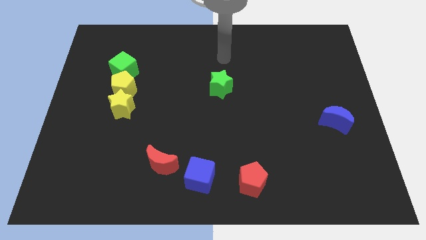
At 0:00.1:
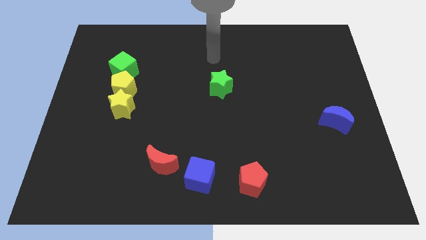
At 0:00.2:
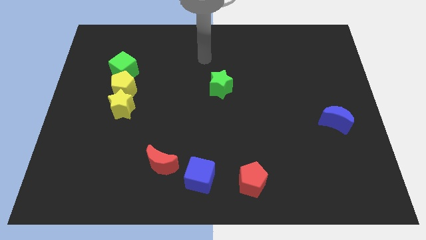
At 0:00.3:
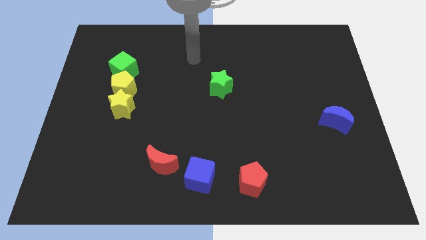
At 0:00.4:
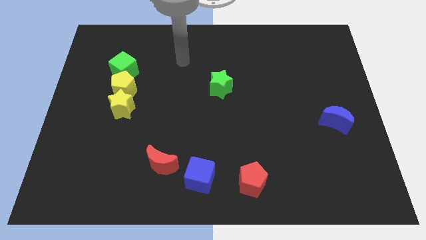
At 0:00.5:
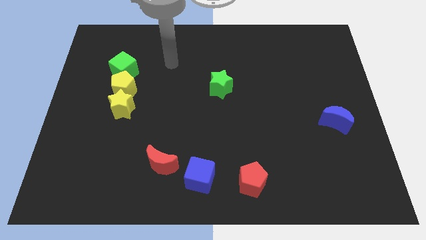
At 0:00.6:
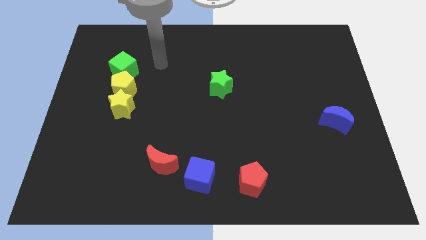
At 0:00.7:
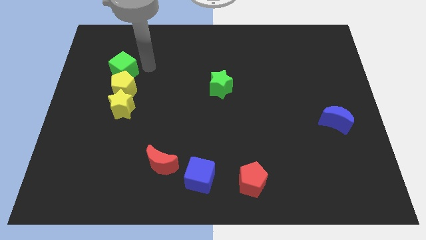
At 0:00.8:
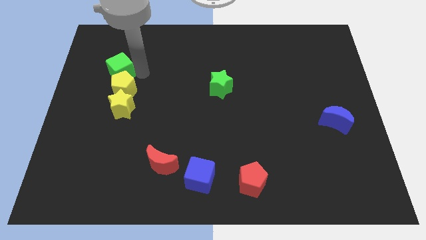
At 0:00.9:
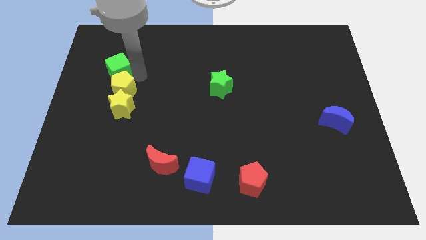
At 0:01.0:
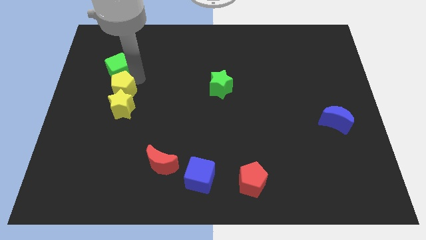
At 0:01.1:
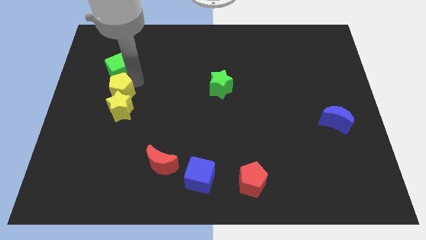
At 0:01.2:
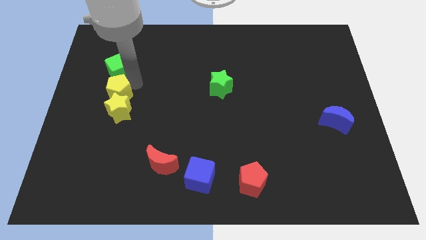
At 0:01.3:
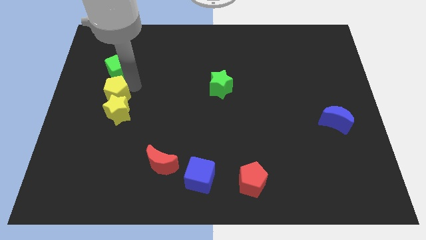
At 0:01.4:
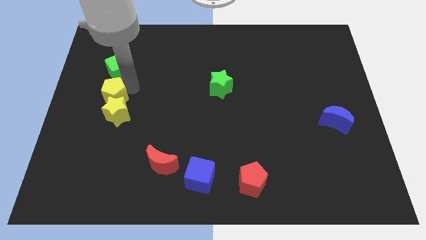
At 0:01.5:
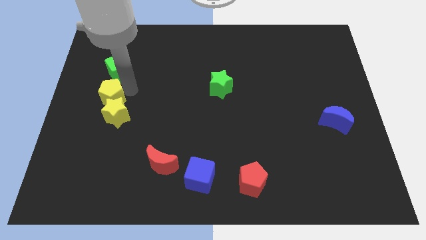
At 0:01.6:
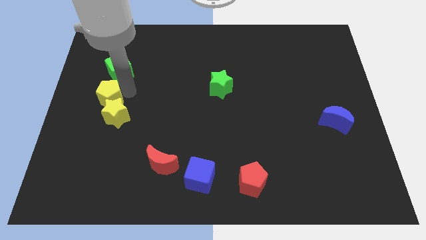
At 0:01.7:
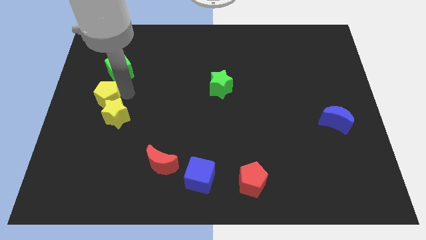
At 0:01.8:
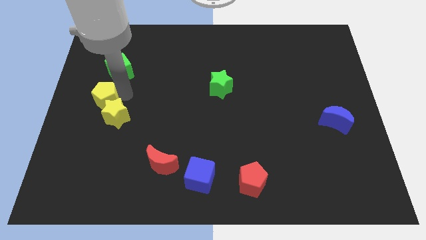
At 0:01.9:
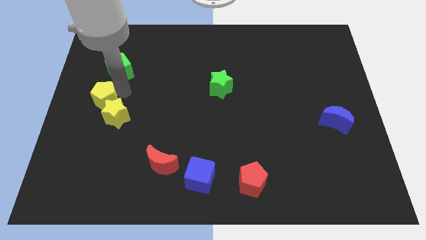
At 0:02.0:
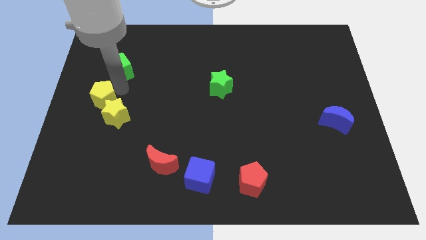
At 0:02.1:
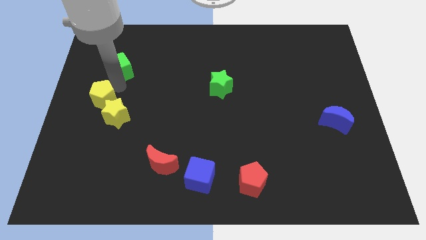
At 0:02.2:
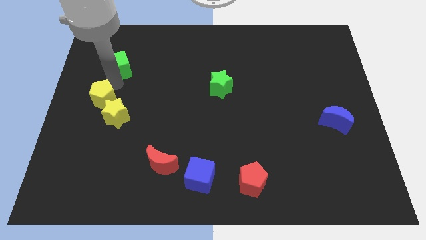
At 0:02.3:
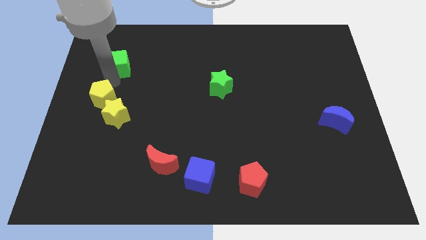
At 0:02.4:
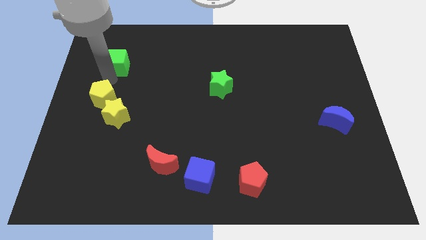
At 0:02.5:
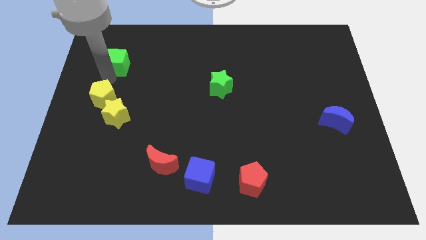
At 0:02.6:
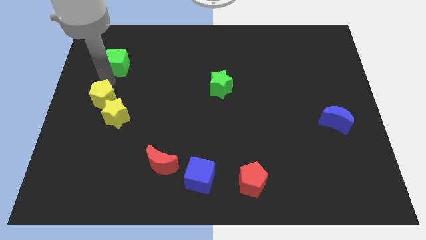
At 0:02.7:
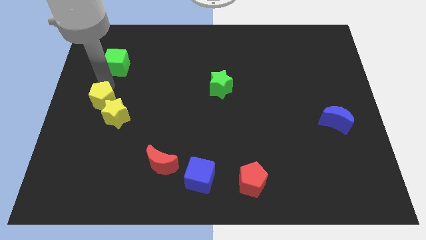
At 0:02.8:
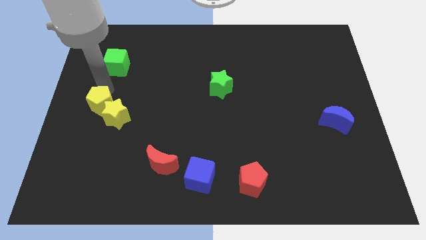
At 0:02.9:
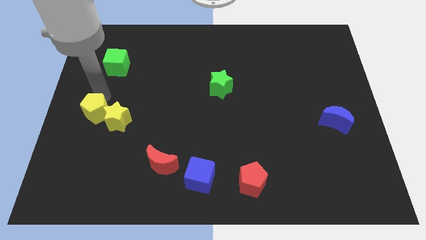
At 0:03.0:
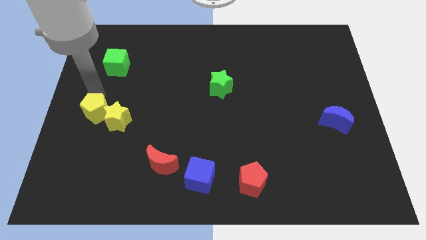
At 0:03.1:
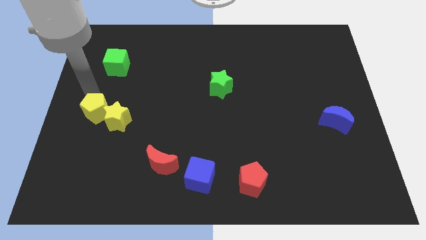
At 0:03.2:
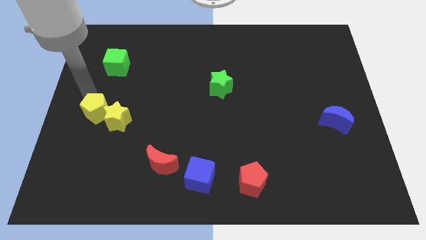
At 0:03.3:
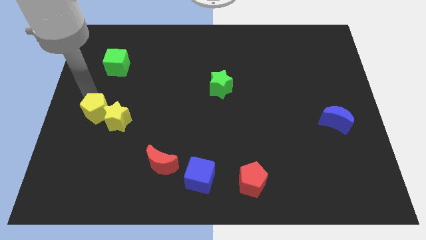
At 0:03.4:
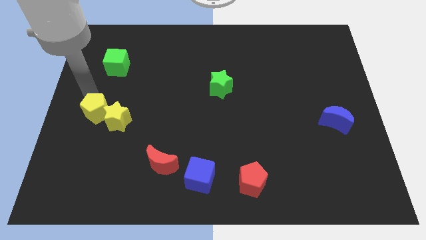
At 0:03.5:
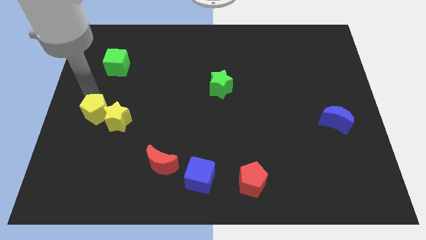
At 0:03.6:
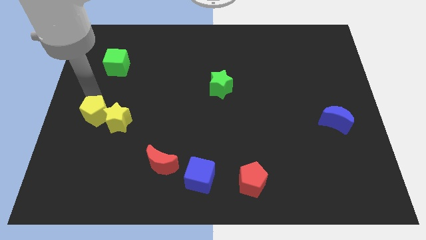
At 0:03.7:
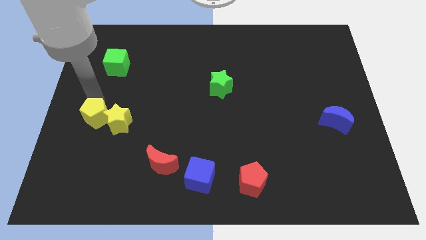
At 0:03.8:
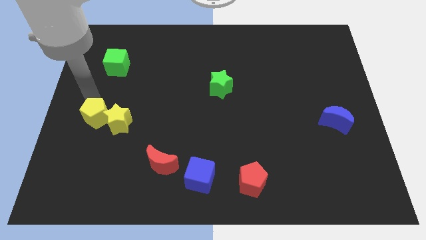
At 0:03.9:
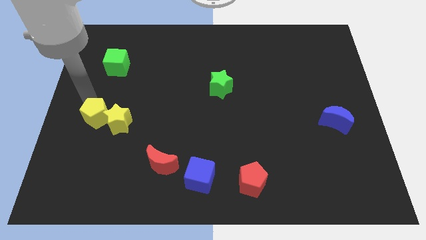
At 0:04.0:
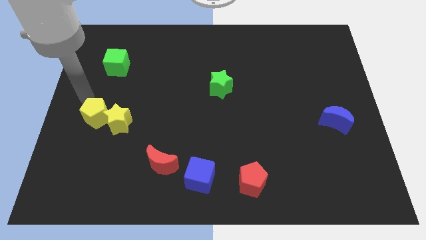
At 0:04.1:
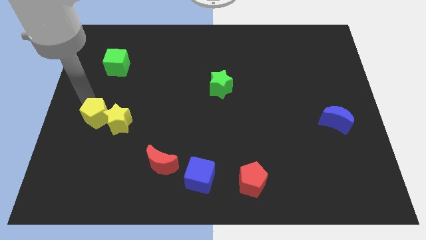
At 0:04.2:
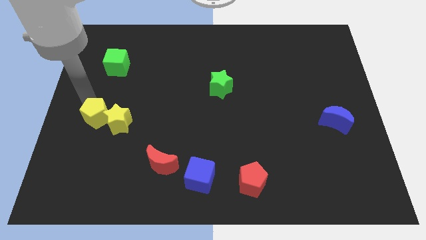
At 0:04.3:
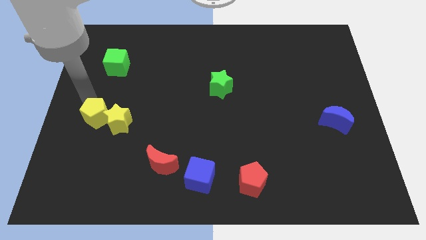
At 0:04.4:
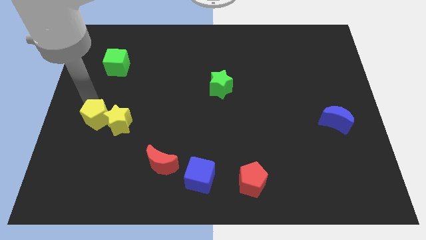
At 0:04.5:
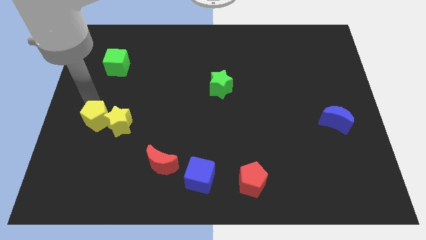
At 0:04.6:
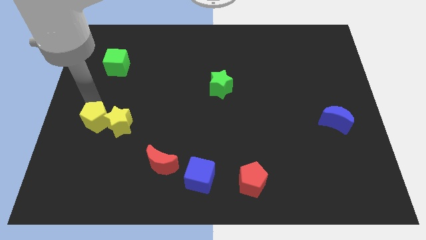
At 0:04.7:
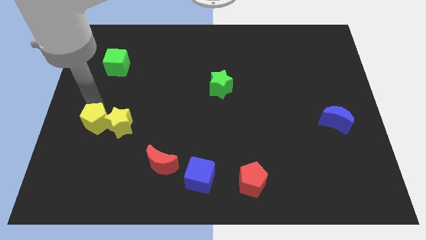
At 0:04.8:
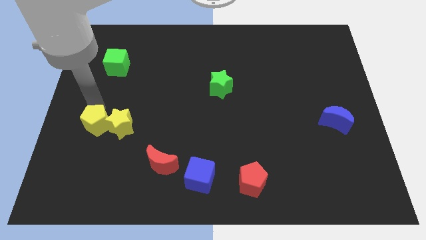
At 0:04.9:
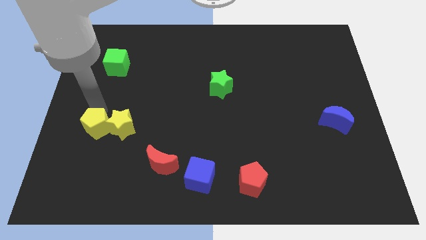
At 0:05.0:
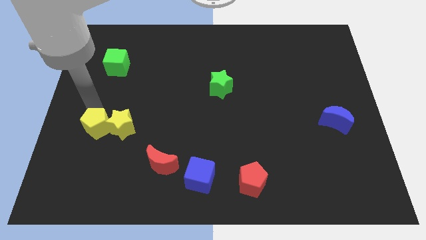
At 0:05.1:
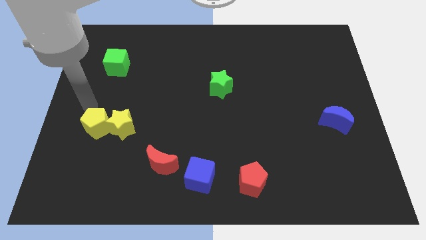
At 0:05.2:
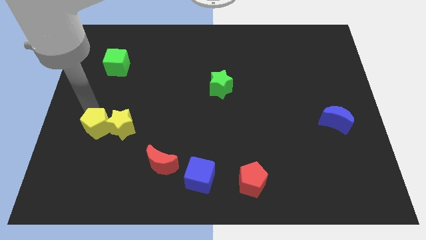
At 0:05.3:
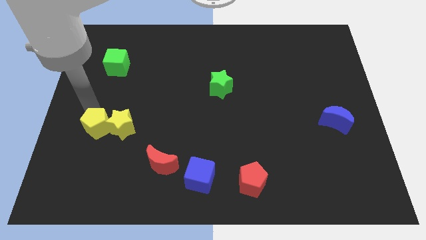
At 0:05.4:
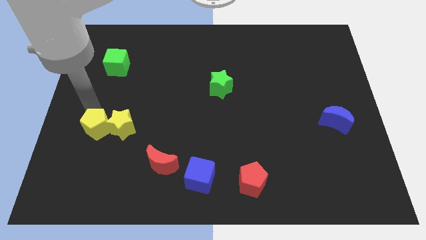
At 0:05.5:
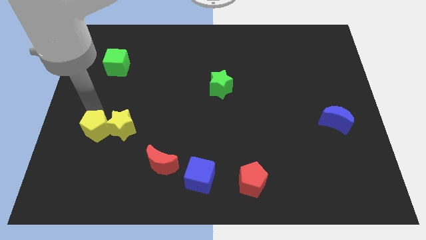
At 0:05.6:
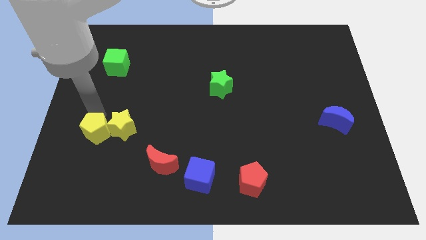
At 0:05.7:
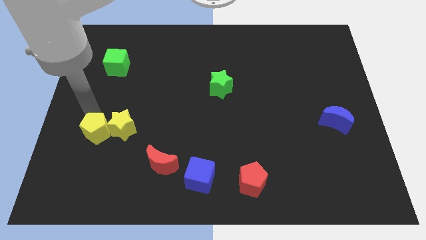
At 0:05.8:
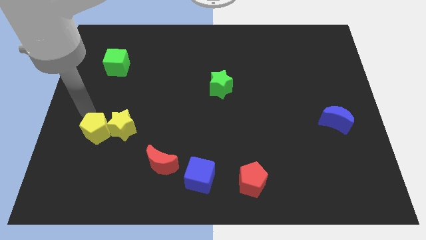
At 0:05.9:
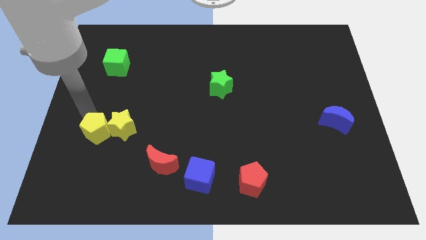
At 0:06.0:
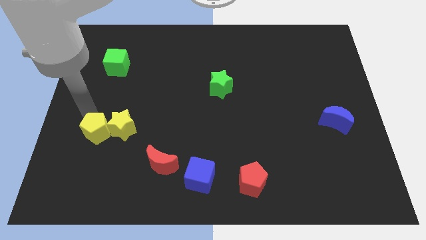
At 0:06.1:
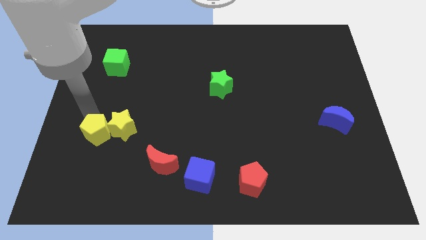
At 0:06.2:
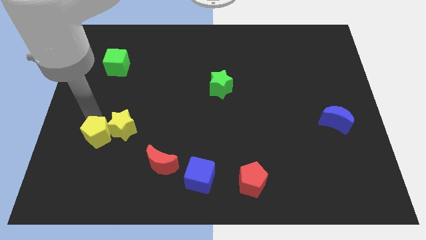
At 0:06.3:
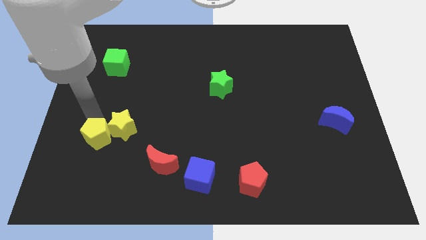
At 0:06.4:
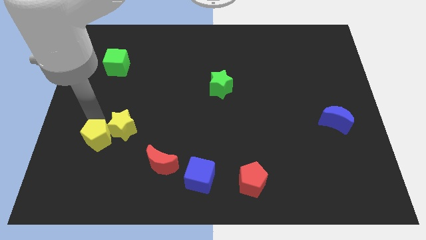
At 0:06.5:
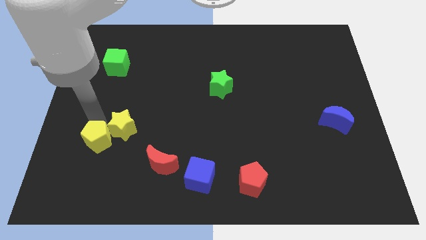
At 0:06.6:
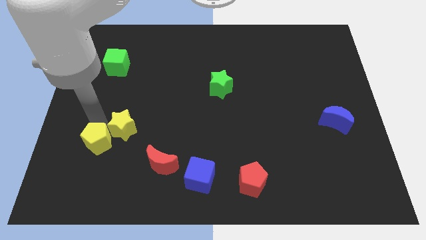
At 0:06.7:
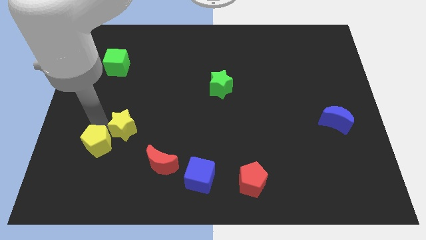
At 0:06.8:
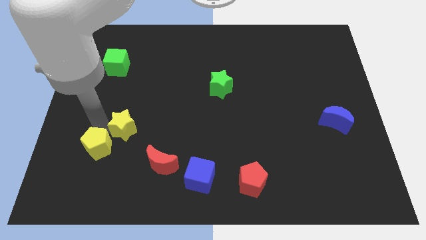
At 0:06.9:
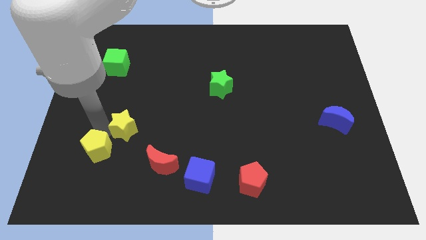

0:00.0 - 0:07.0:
push the yellow pentagon to the left of the red moon

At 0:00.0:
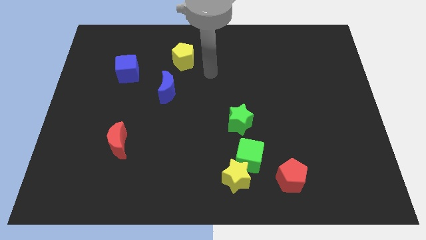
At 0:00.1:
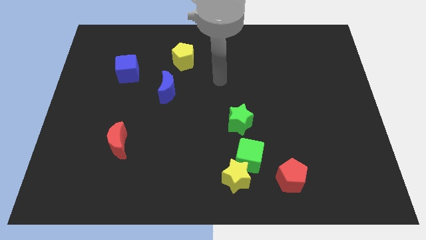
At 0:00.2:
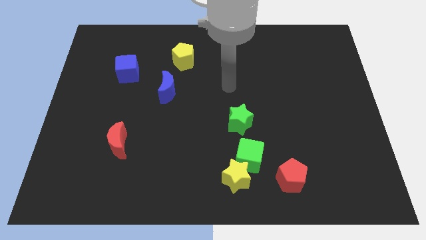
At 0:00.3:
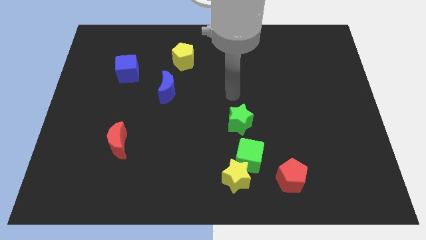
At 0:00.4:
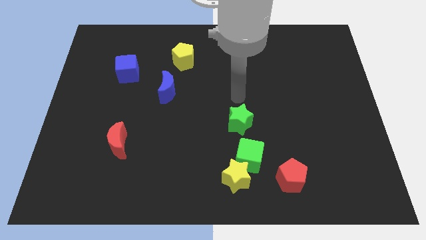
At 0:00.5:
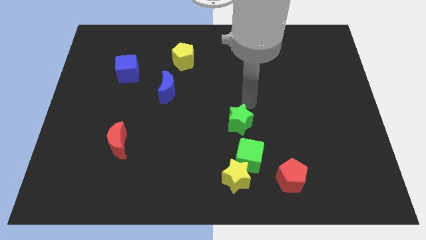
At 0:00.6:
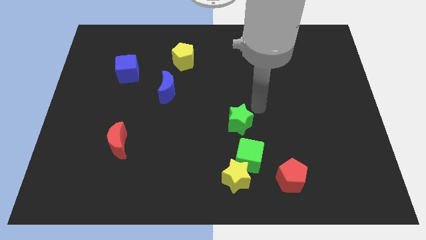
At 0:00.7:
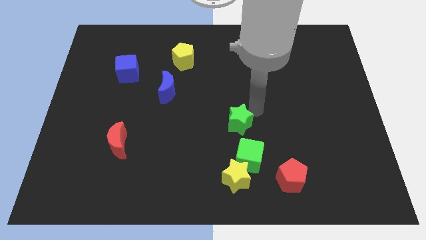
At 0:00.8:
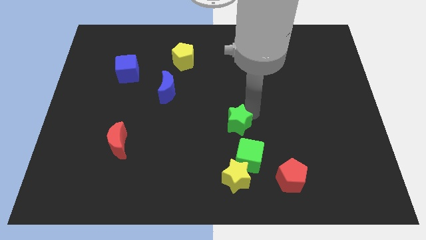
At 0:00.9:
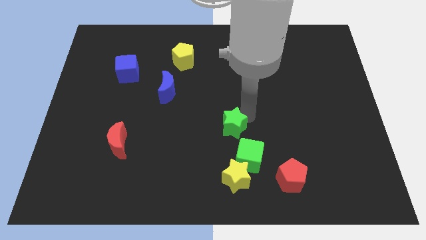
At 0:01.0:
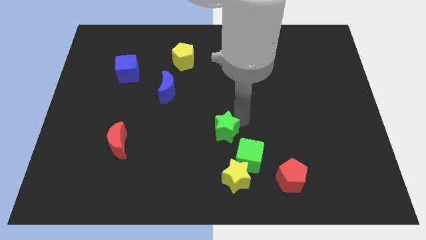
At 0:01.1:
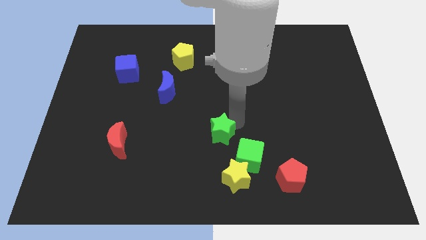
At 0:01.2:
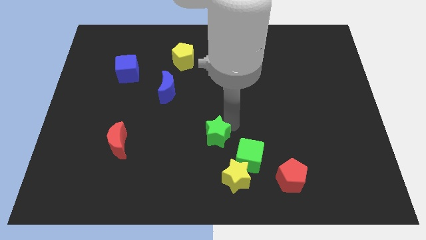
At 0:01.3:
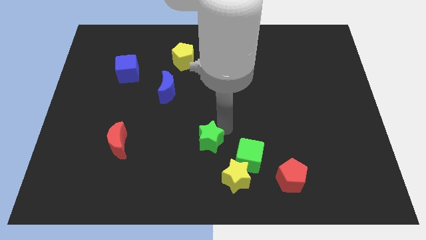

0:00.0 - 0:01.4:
push the green star to the left side of the green cube
